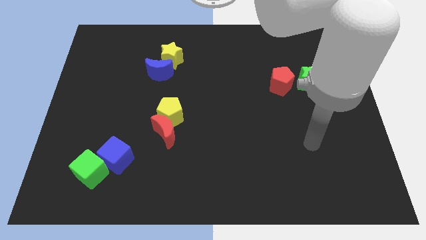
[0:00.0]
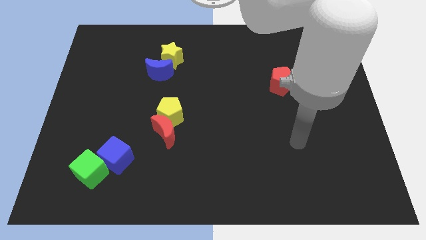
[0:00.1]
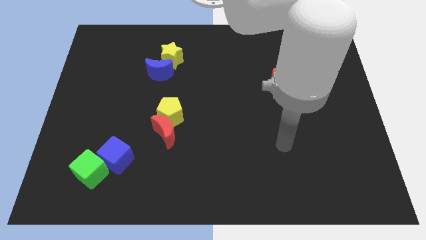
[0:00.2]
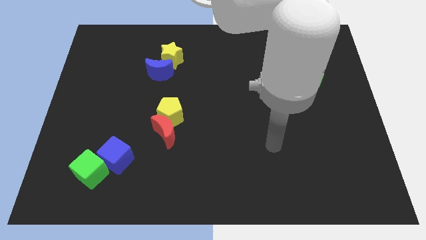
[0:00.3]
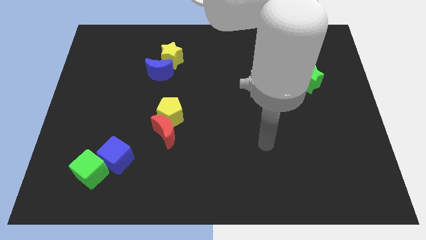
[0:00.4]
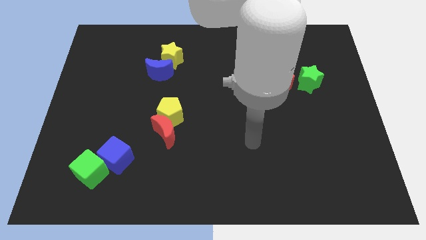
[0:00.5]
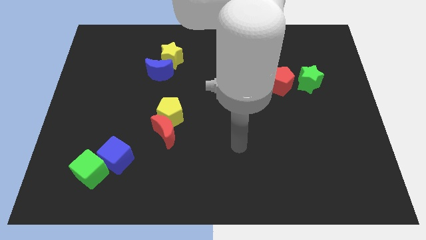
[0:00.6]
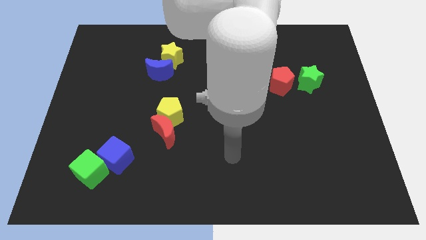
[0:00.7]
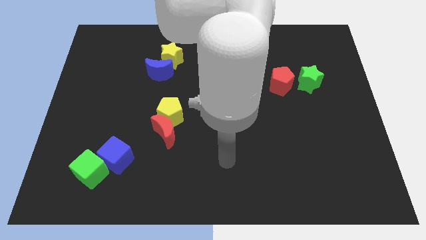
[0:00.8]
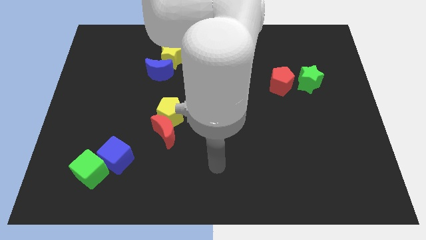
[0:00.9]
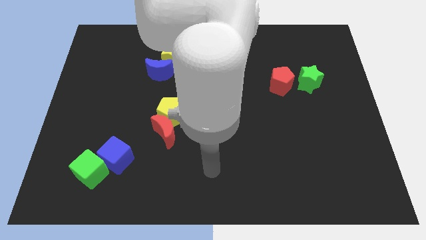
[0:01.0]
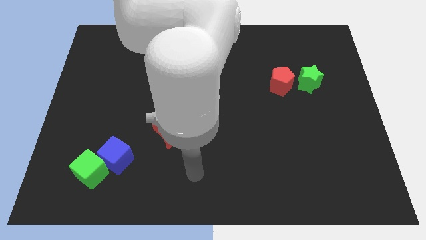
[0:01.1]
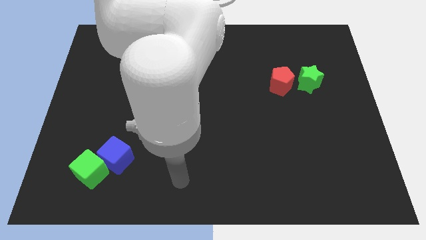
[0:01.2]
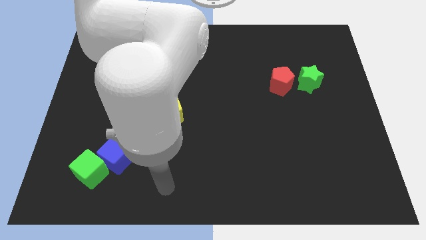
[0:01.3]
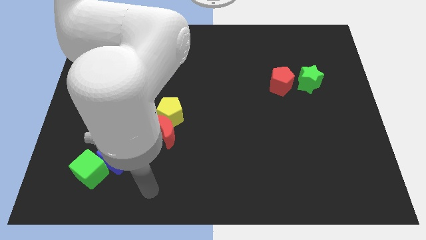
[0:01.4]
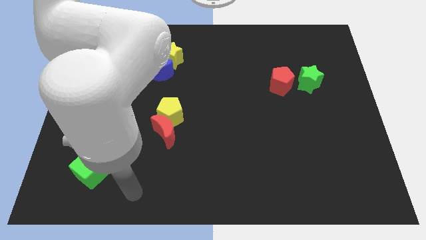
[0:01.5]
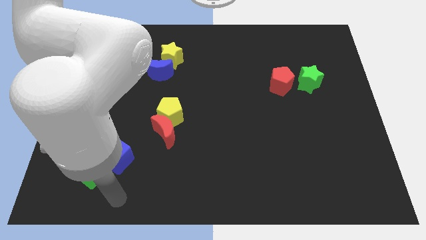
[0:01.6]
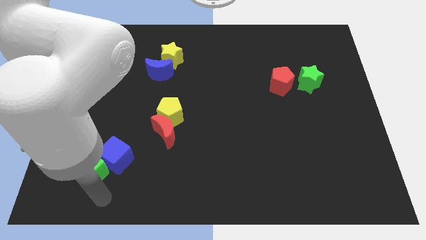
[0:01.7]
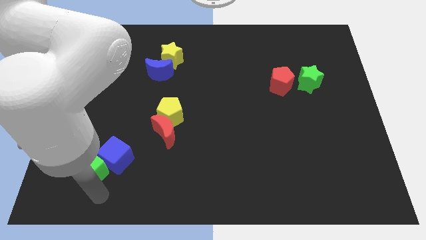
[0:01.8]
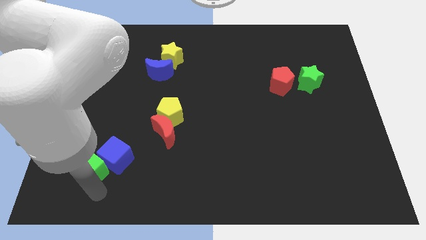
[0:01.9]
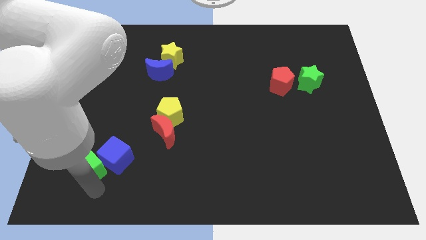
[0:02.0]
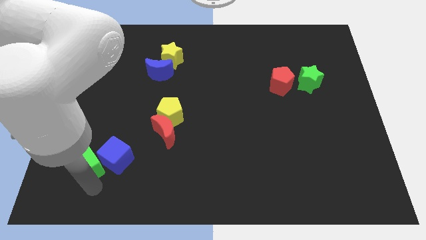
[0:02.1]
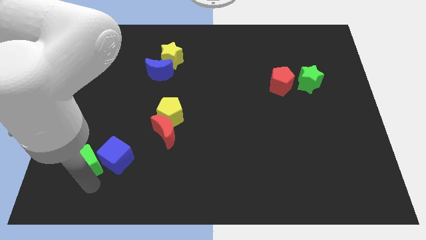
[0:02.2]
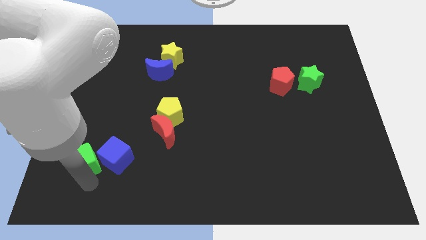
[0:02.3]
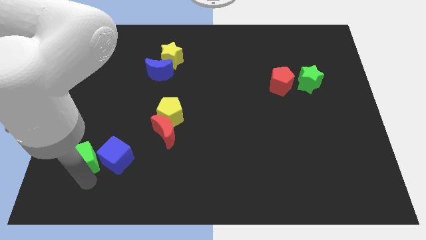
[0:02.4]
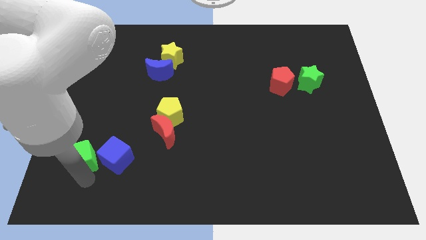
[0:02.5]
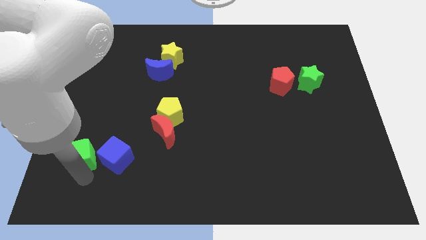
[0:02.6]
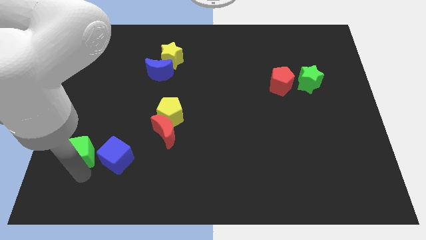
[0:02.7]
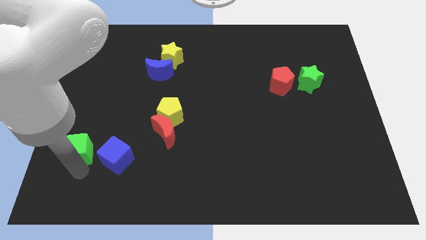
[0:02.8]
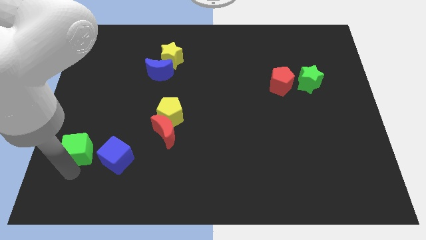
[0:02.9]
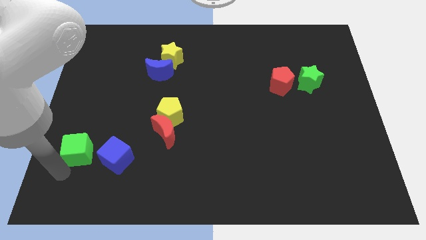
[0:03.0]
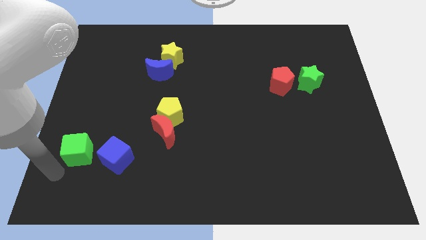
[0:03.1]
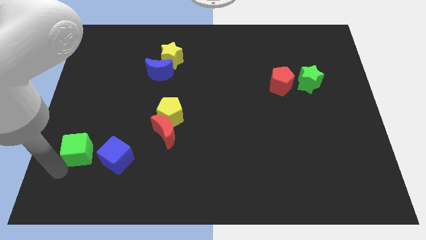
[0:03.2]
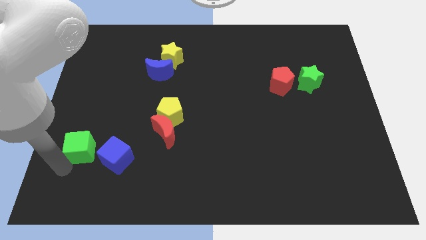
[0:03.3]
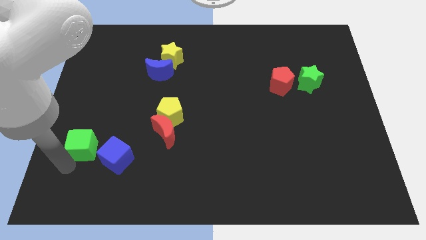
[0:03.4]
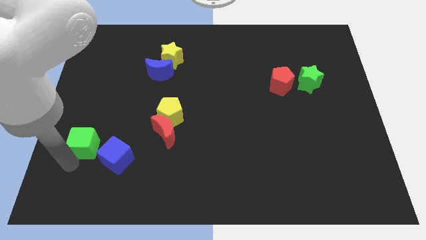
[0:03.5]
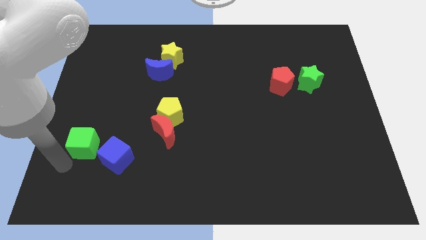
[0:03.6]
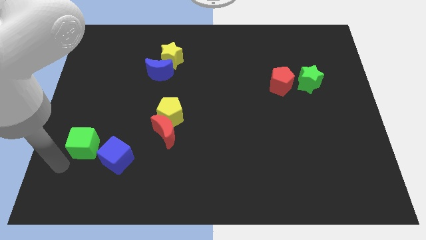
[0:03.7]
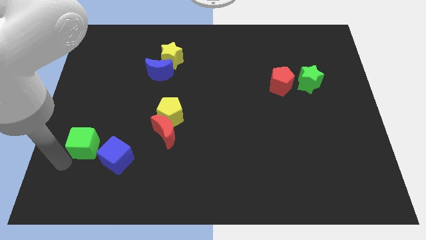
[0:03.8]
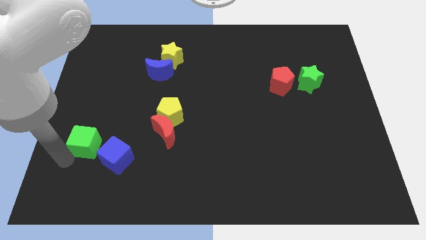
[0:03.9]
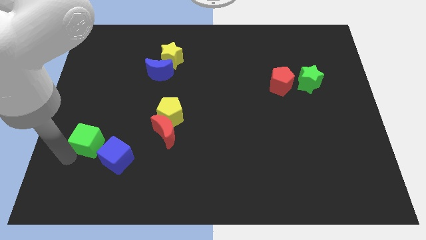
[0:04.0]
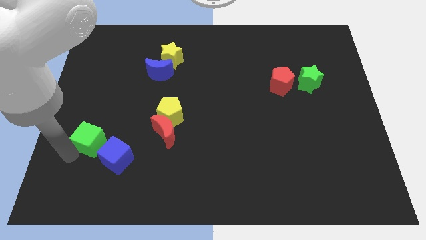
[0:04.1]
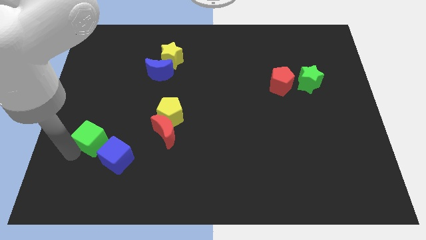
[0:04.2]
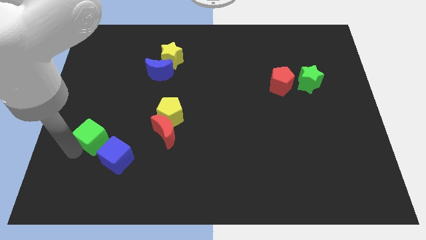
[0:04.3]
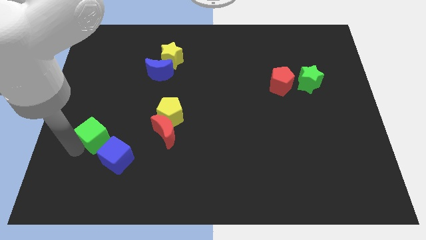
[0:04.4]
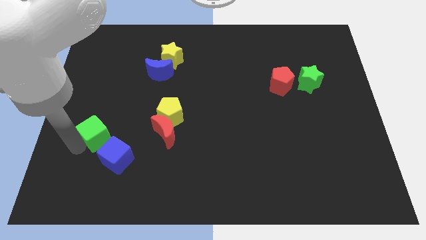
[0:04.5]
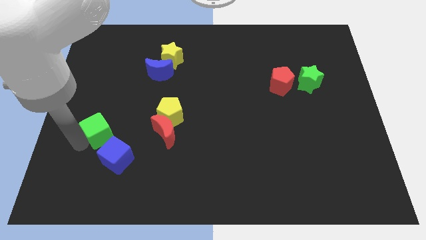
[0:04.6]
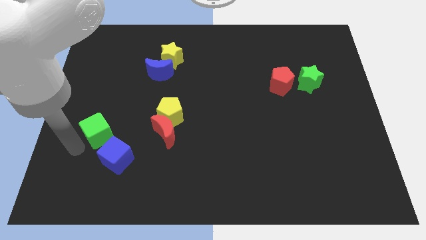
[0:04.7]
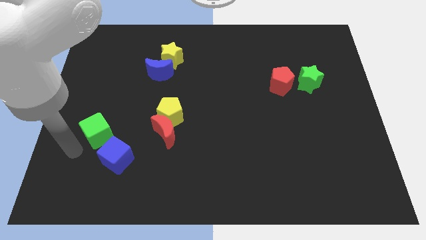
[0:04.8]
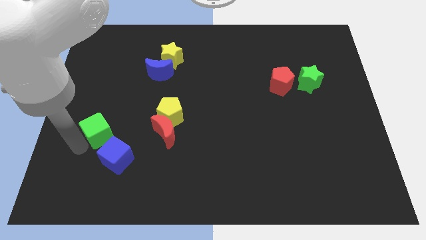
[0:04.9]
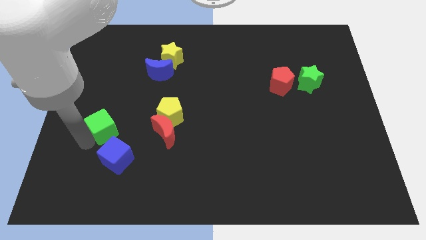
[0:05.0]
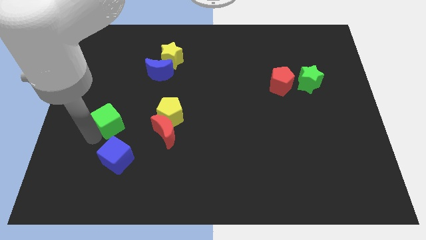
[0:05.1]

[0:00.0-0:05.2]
put the green cube to the left of the yellow pentagon

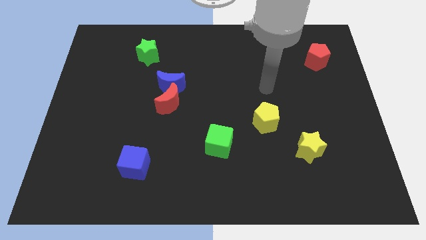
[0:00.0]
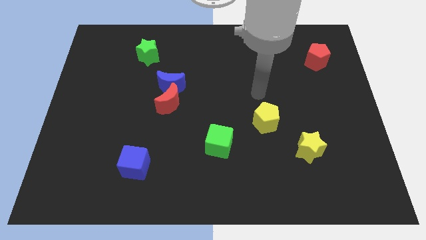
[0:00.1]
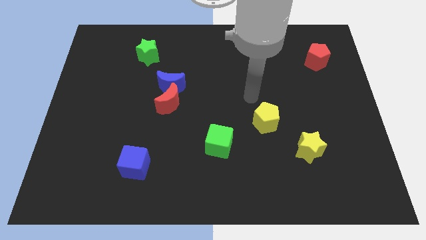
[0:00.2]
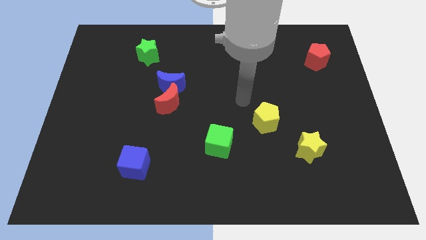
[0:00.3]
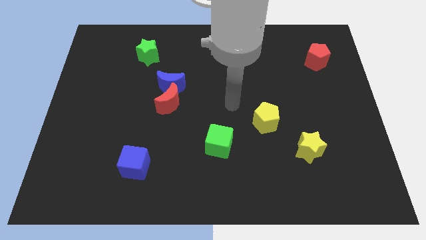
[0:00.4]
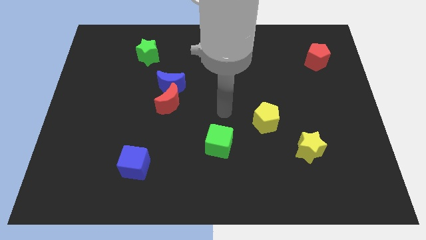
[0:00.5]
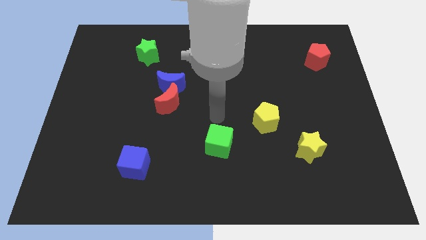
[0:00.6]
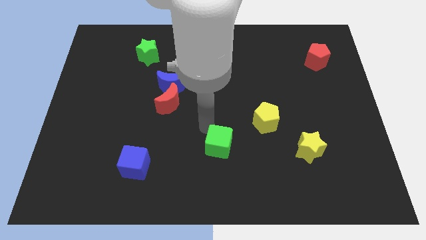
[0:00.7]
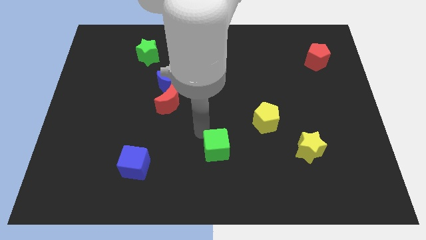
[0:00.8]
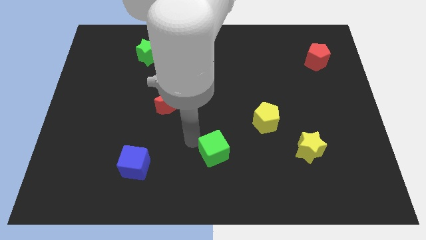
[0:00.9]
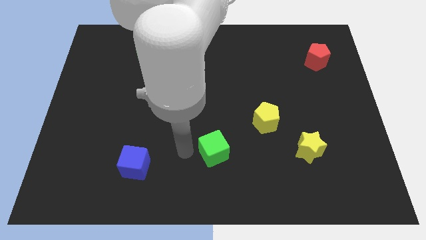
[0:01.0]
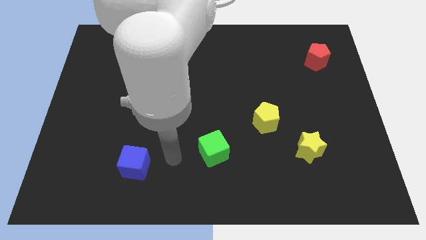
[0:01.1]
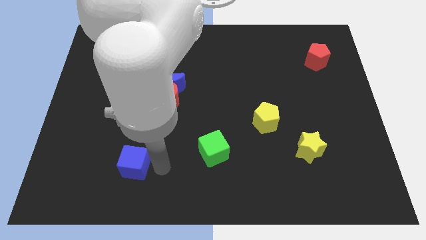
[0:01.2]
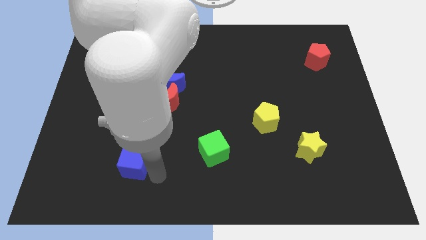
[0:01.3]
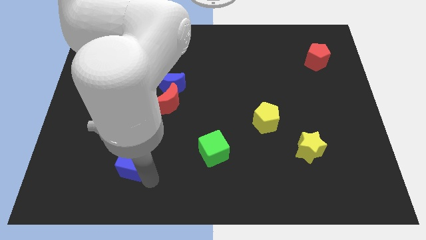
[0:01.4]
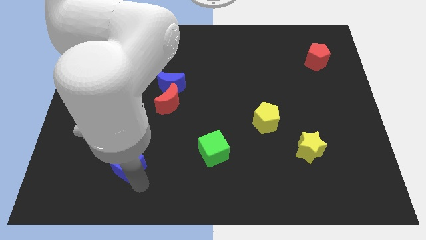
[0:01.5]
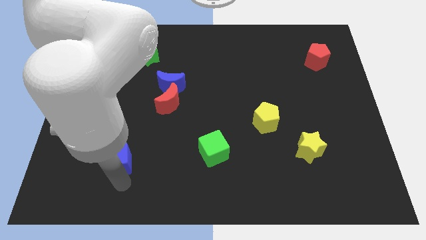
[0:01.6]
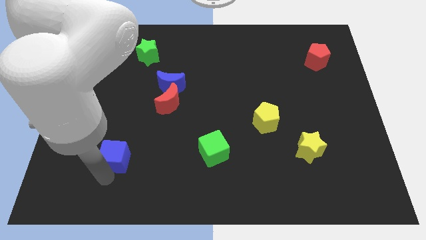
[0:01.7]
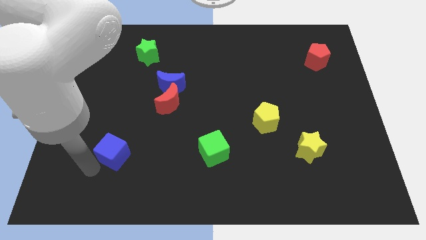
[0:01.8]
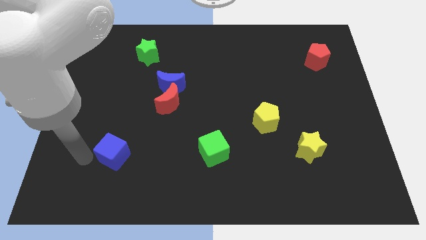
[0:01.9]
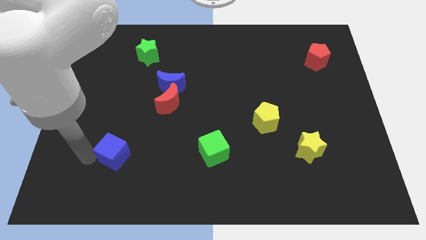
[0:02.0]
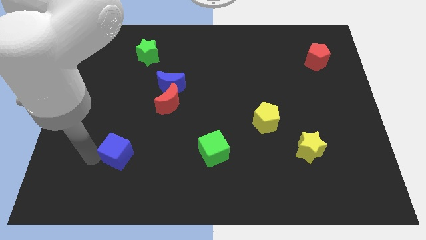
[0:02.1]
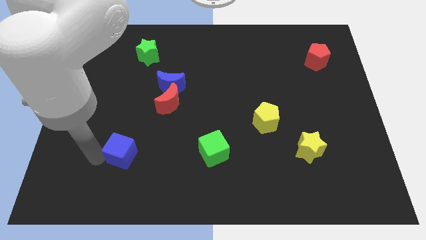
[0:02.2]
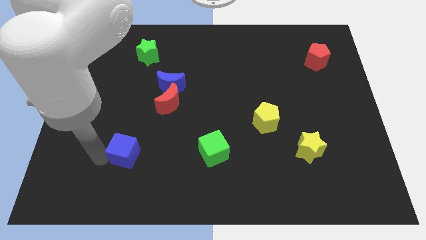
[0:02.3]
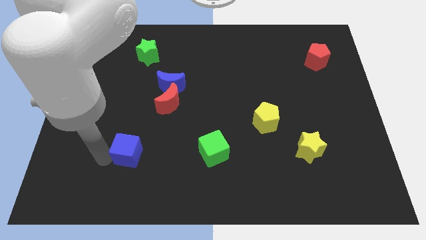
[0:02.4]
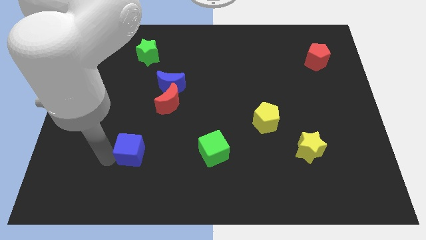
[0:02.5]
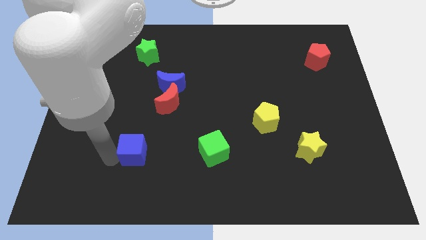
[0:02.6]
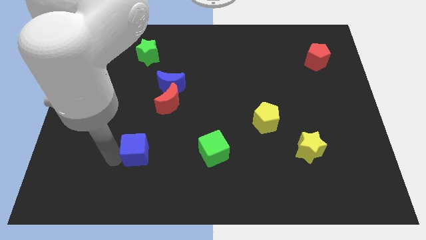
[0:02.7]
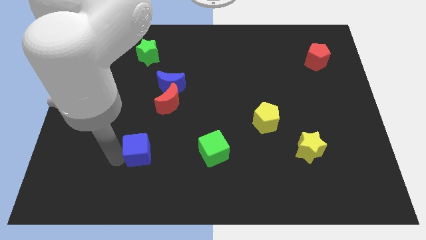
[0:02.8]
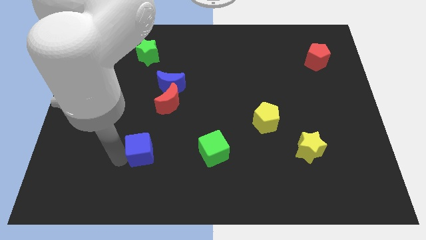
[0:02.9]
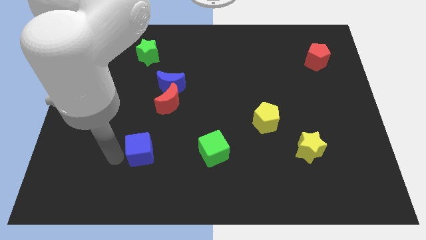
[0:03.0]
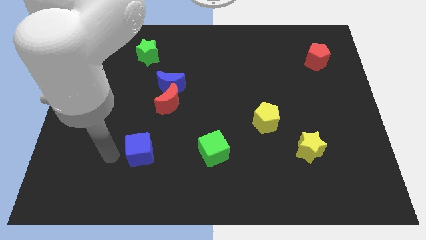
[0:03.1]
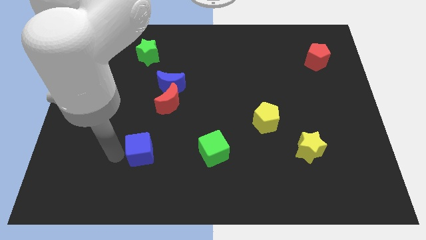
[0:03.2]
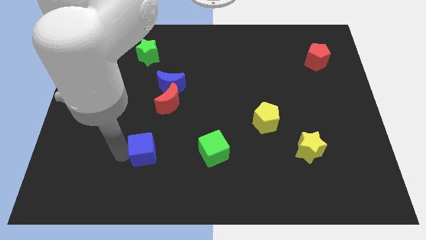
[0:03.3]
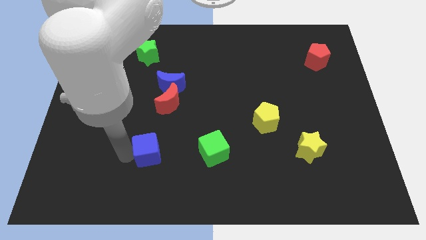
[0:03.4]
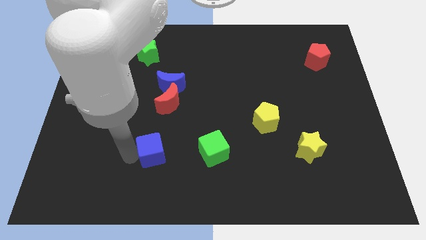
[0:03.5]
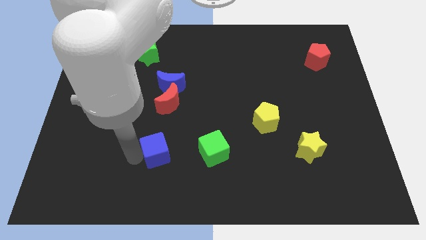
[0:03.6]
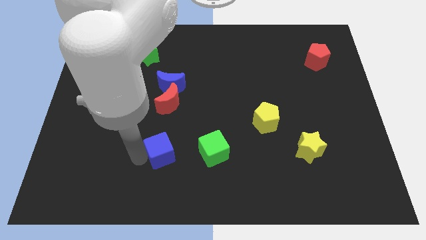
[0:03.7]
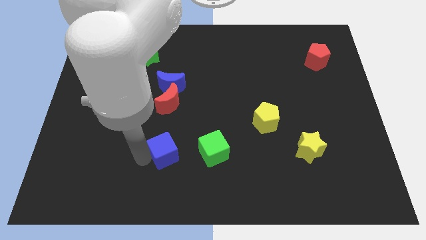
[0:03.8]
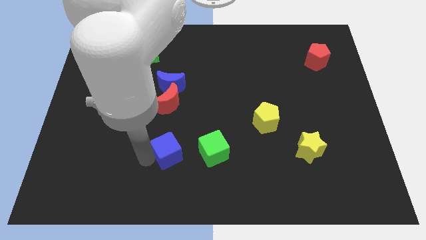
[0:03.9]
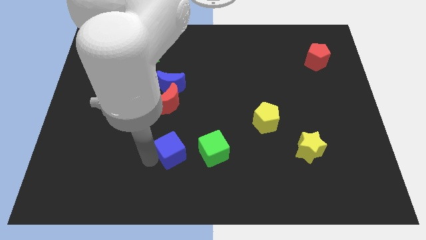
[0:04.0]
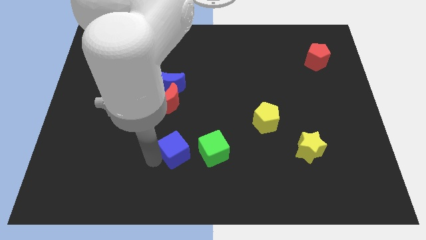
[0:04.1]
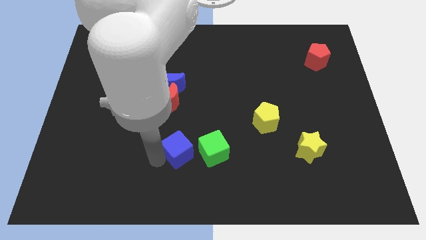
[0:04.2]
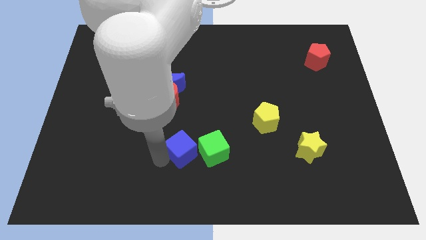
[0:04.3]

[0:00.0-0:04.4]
move the blue cube to the top left of the green cube
